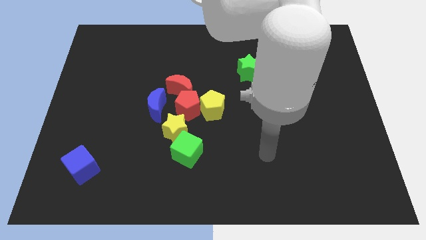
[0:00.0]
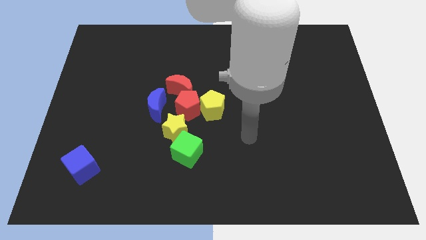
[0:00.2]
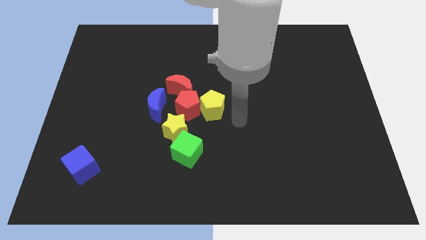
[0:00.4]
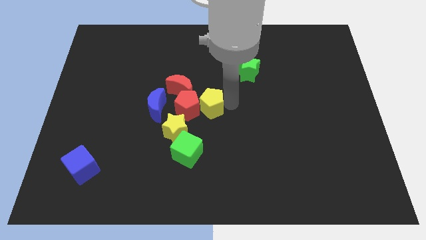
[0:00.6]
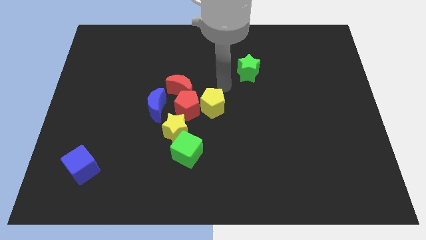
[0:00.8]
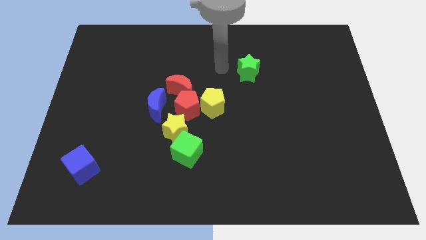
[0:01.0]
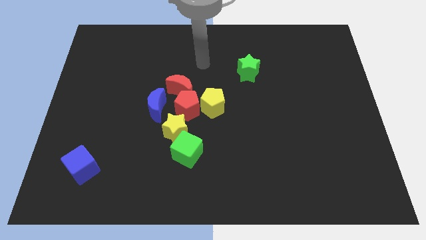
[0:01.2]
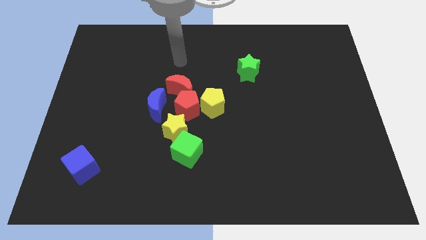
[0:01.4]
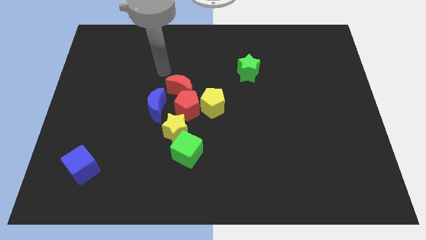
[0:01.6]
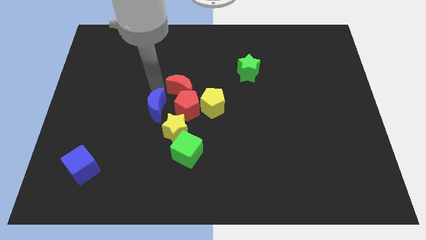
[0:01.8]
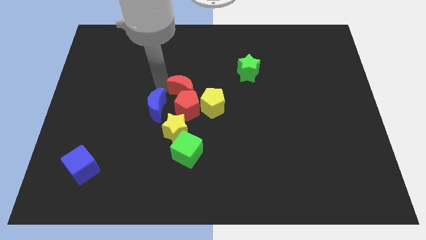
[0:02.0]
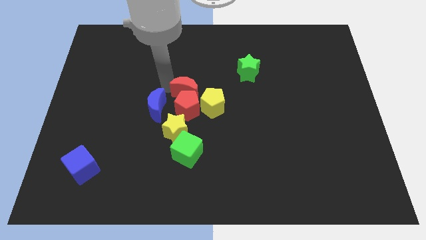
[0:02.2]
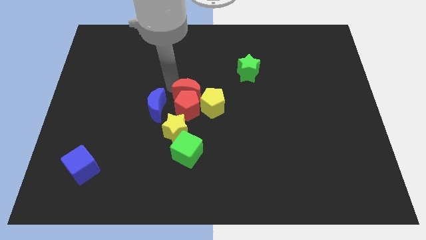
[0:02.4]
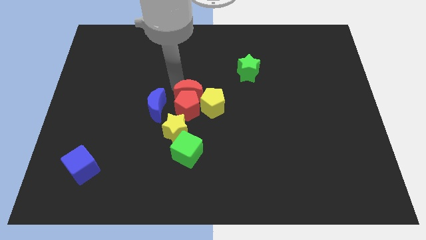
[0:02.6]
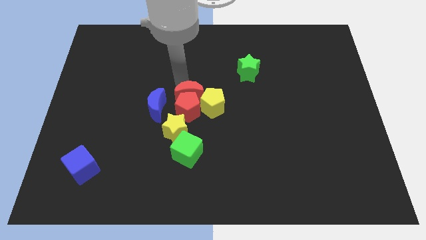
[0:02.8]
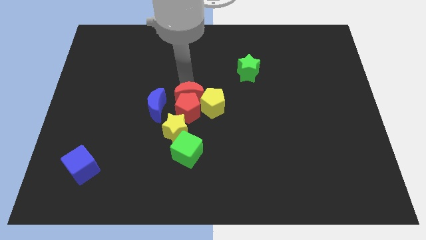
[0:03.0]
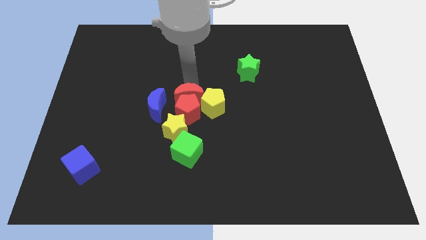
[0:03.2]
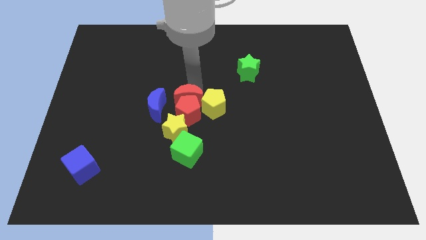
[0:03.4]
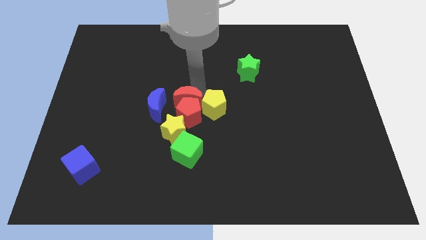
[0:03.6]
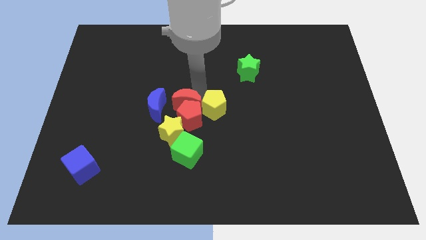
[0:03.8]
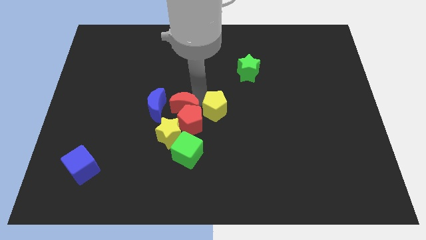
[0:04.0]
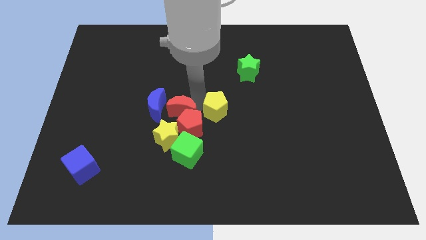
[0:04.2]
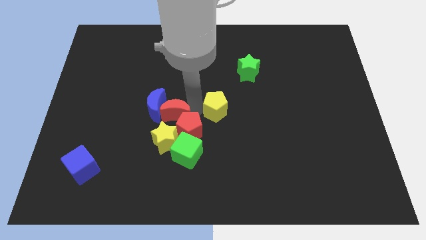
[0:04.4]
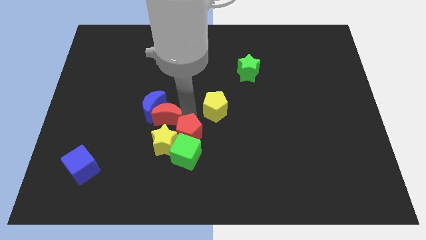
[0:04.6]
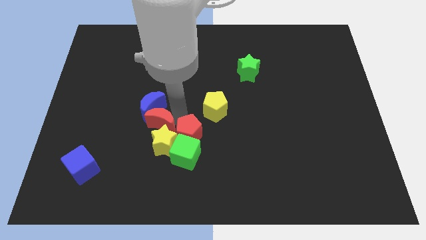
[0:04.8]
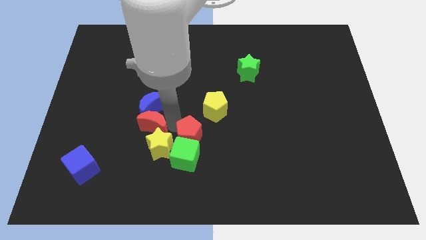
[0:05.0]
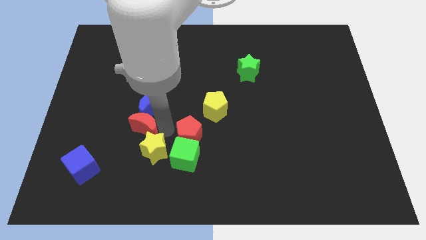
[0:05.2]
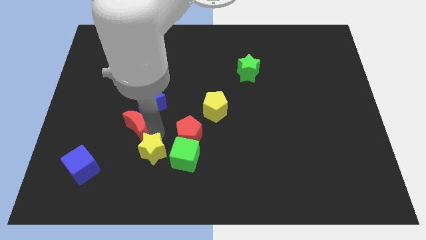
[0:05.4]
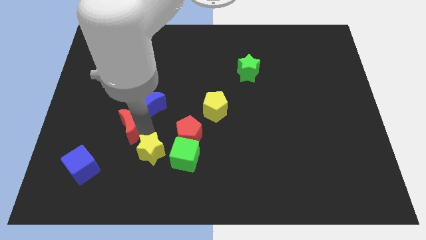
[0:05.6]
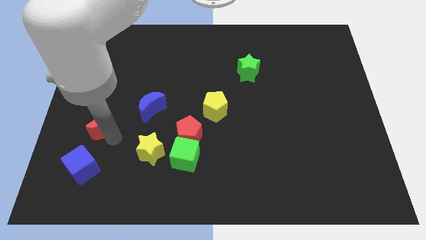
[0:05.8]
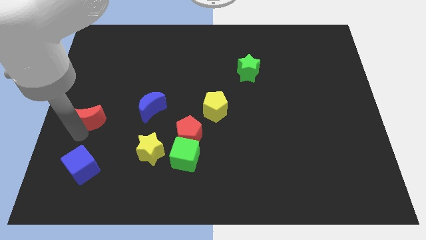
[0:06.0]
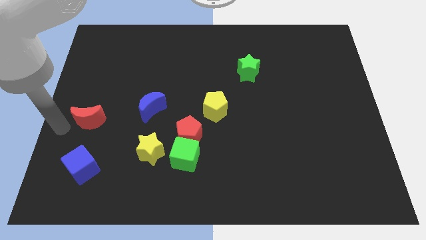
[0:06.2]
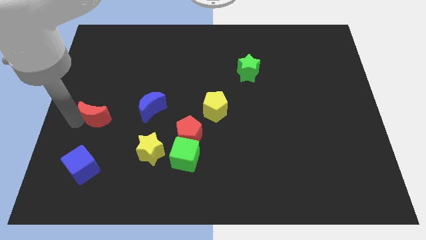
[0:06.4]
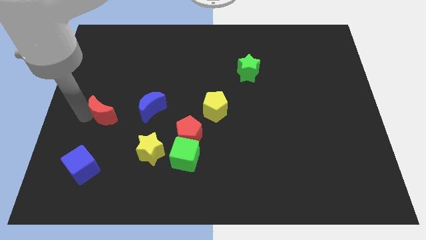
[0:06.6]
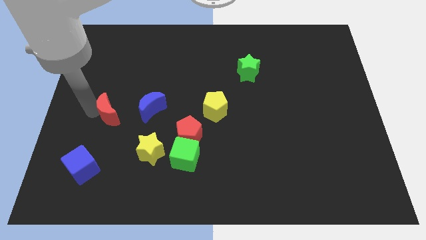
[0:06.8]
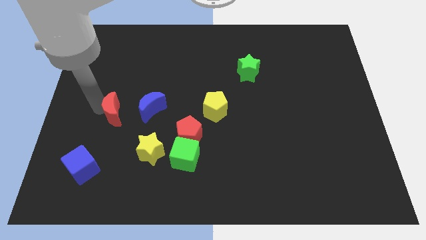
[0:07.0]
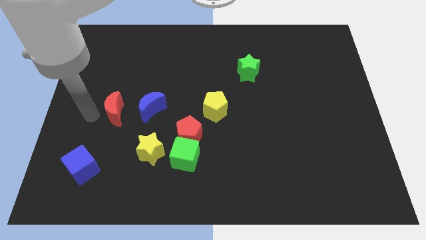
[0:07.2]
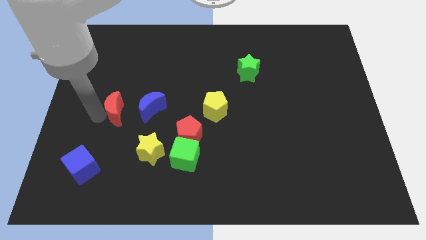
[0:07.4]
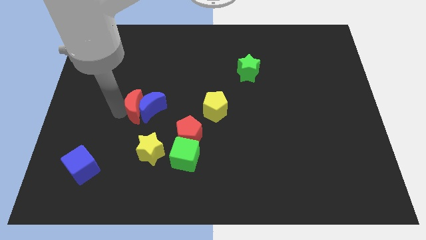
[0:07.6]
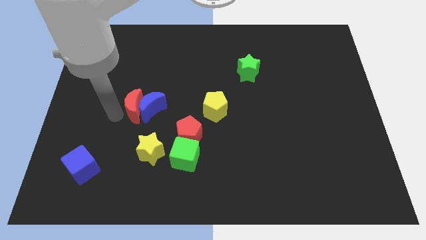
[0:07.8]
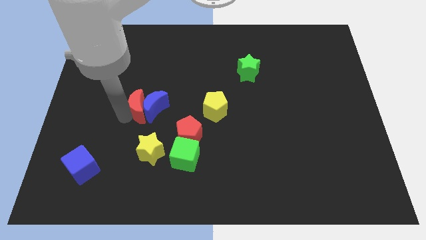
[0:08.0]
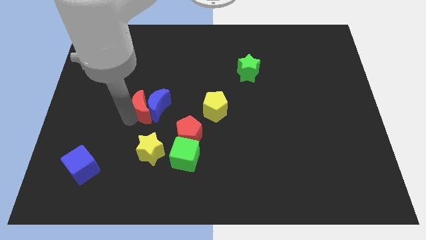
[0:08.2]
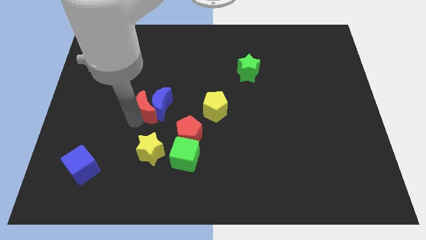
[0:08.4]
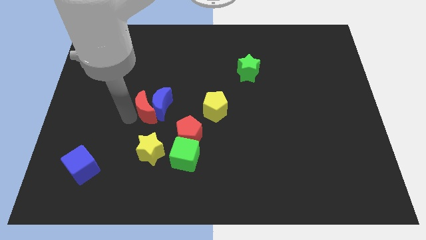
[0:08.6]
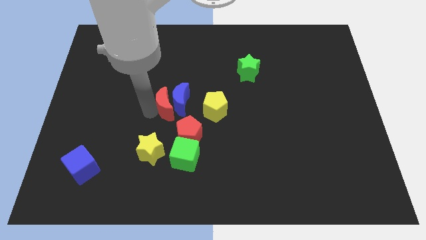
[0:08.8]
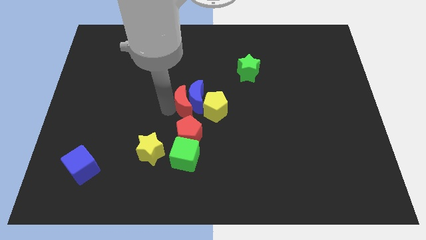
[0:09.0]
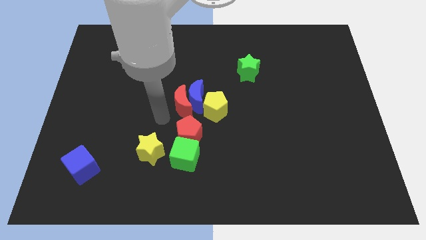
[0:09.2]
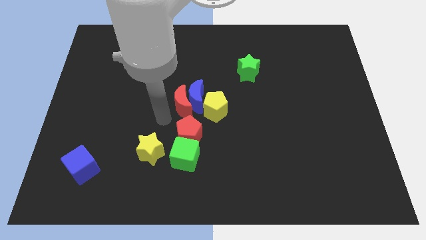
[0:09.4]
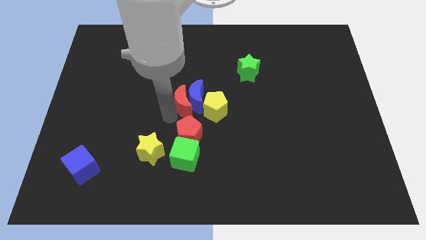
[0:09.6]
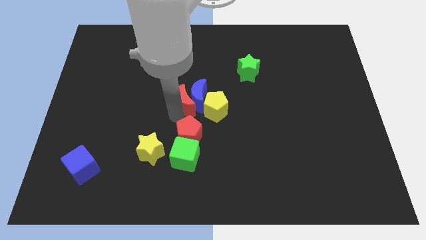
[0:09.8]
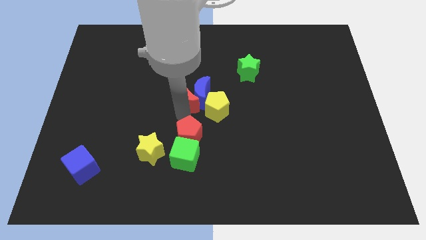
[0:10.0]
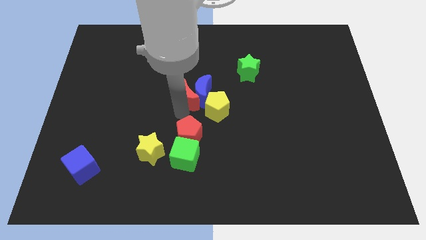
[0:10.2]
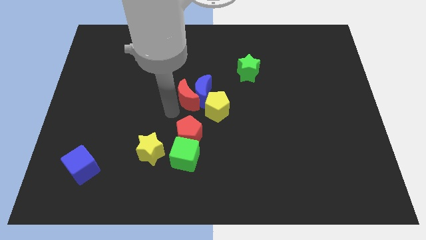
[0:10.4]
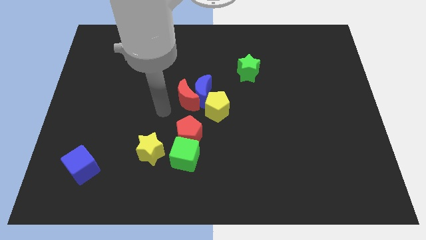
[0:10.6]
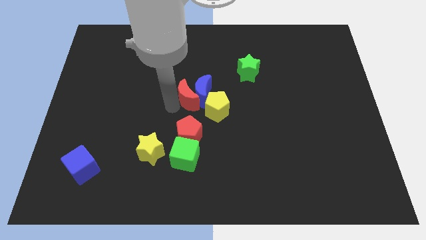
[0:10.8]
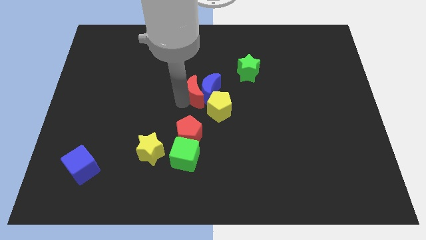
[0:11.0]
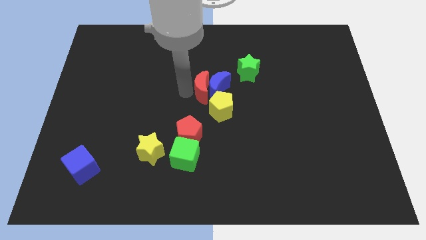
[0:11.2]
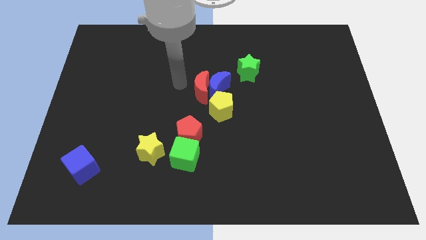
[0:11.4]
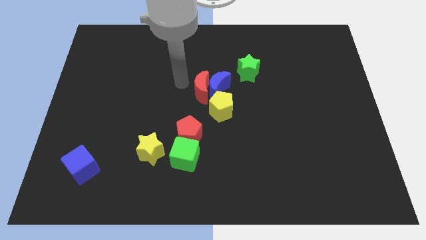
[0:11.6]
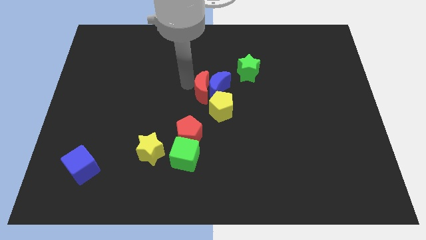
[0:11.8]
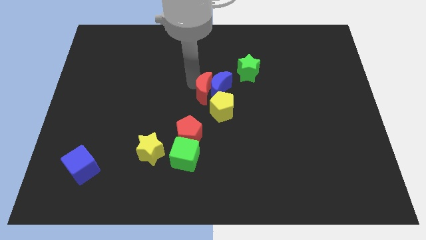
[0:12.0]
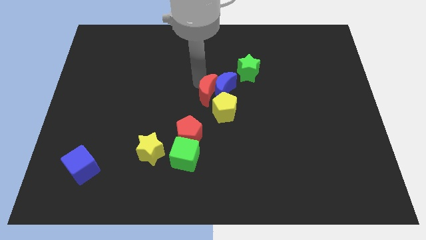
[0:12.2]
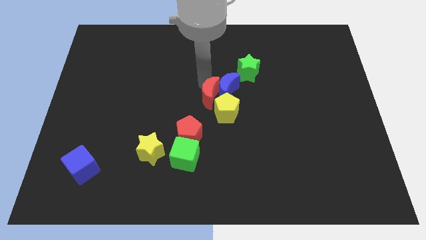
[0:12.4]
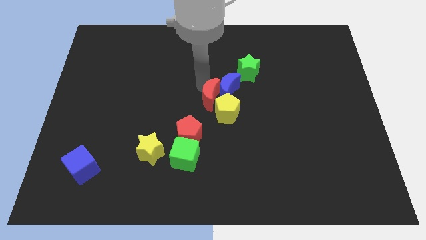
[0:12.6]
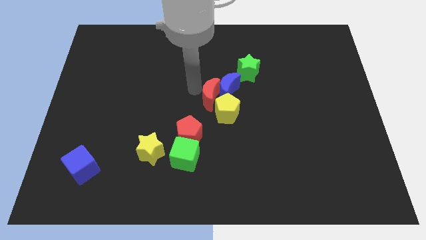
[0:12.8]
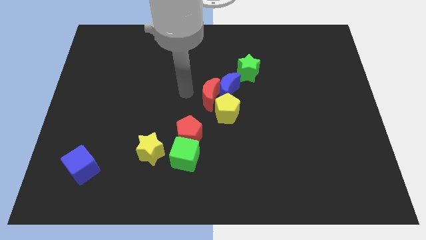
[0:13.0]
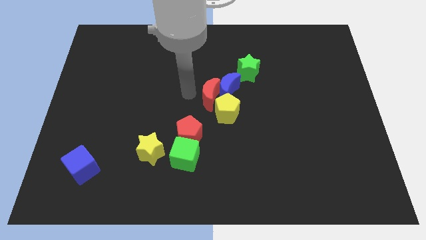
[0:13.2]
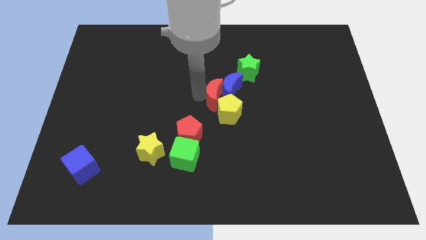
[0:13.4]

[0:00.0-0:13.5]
slightly move the red moon diagonally downwards and right

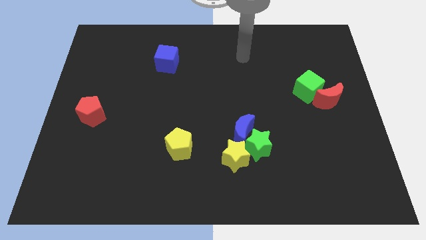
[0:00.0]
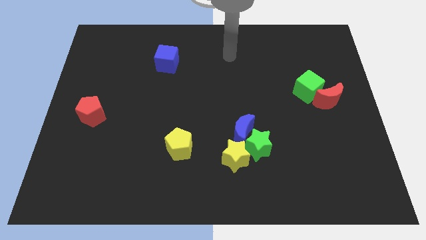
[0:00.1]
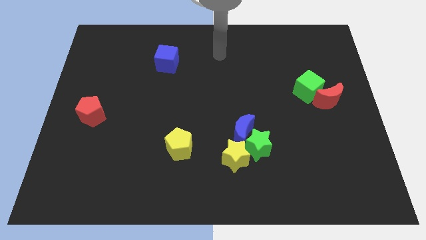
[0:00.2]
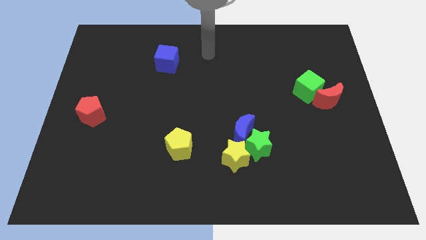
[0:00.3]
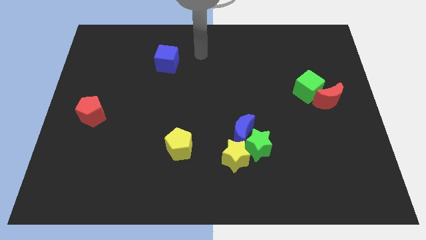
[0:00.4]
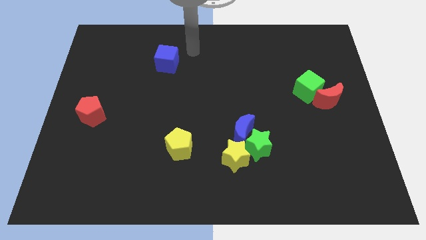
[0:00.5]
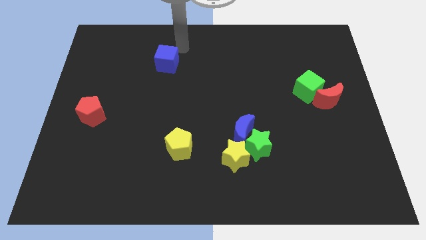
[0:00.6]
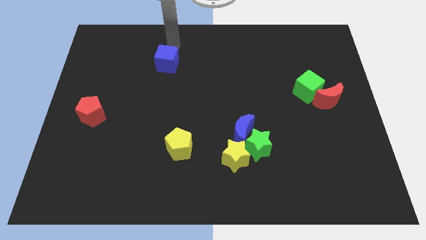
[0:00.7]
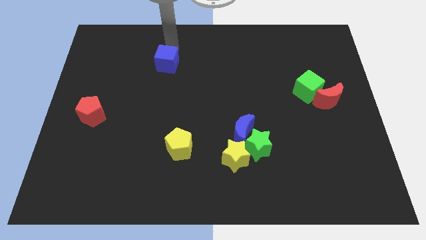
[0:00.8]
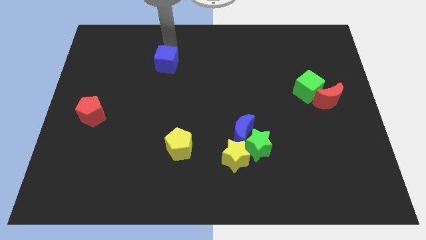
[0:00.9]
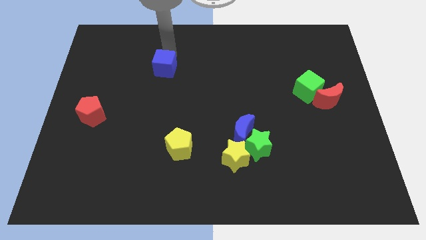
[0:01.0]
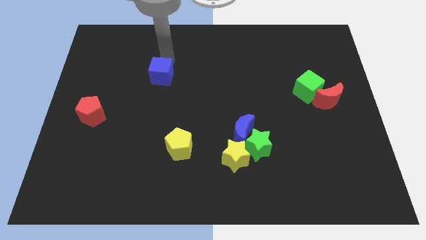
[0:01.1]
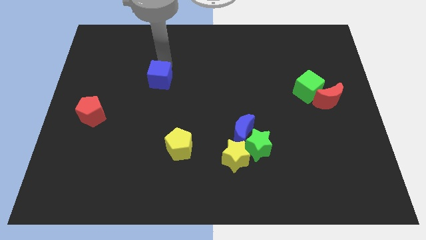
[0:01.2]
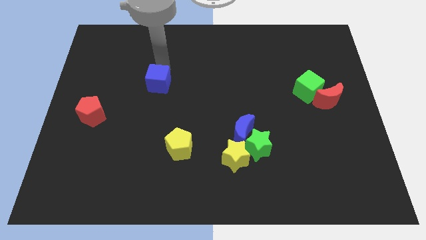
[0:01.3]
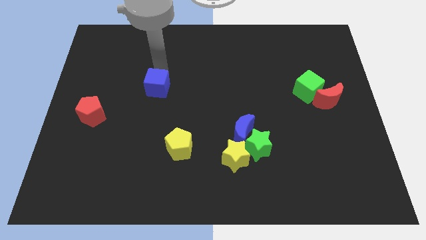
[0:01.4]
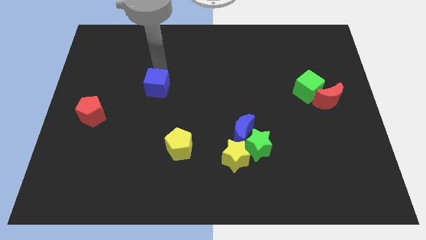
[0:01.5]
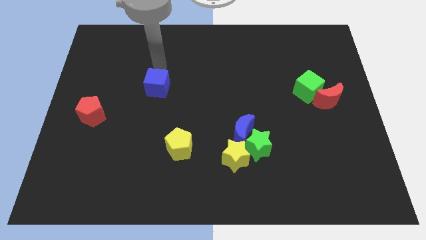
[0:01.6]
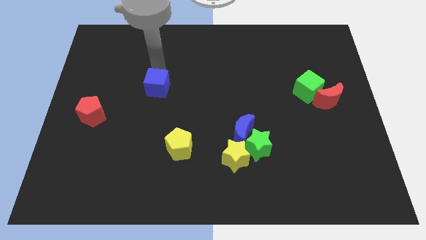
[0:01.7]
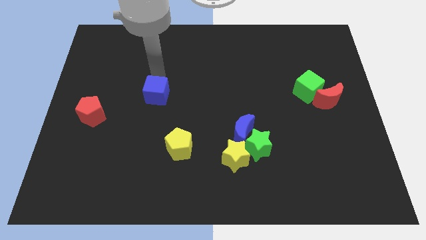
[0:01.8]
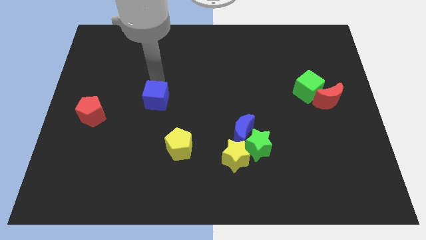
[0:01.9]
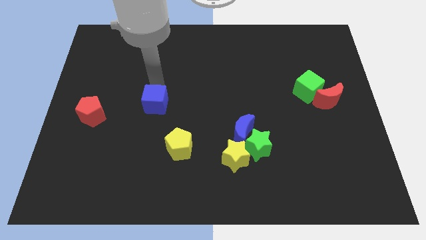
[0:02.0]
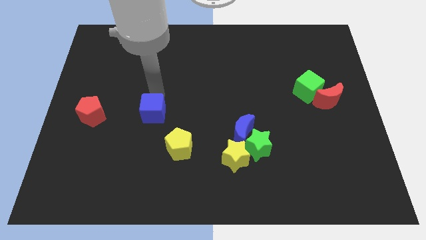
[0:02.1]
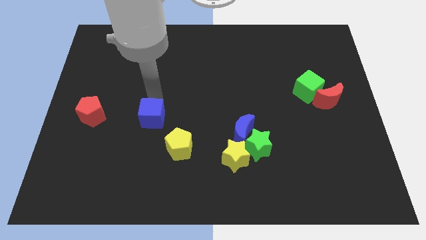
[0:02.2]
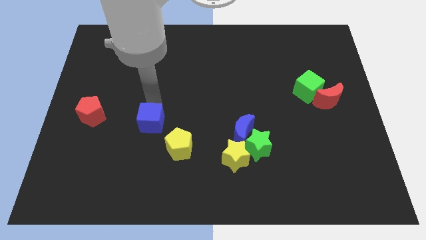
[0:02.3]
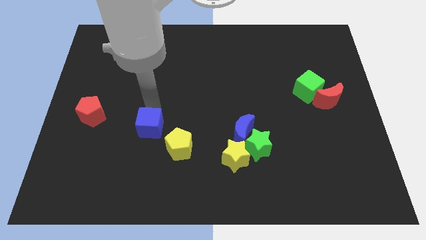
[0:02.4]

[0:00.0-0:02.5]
push the blue cube down
